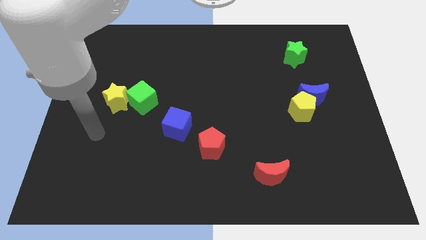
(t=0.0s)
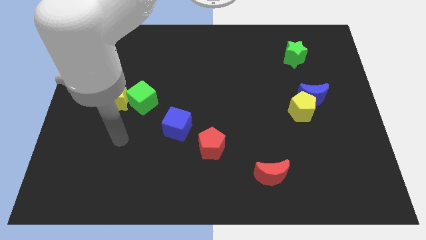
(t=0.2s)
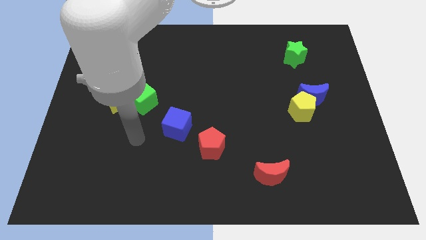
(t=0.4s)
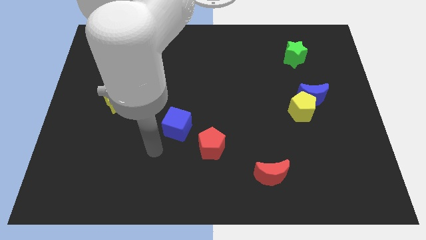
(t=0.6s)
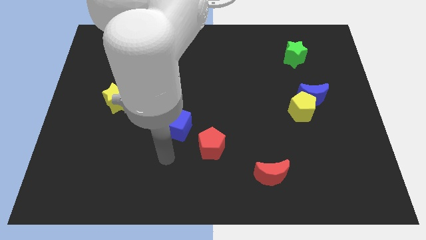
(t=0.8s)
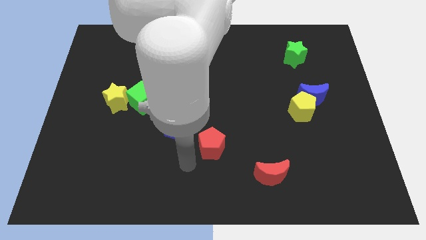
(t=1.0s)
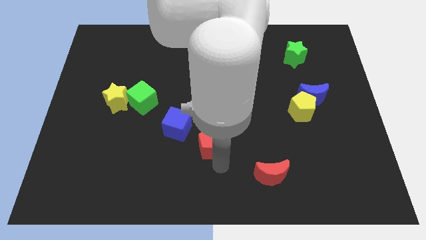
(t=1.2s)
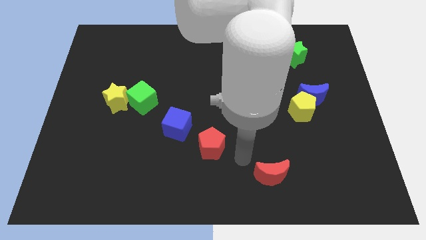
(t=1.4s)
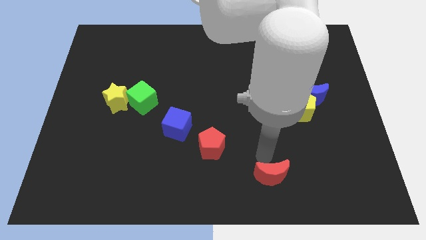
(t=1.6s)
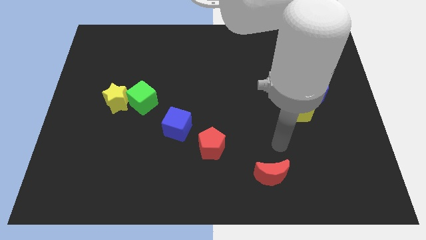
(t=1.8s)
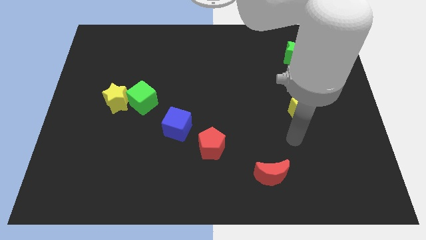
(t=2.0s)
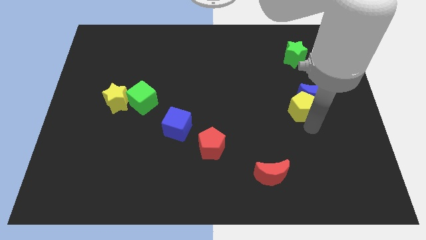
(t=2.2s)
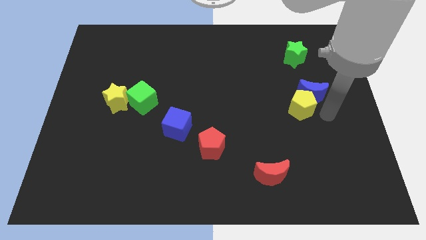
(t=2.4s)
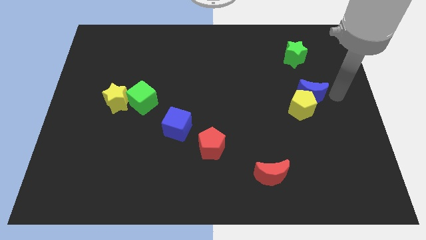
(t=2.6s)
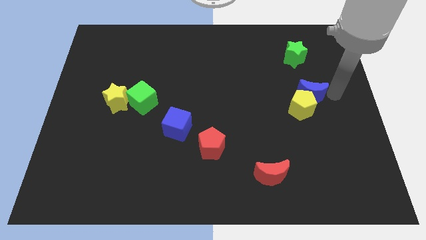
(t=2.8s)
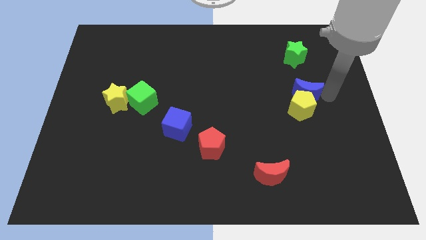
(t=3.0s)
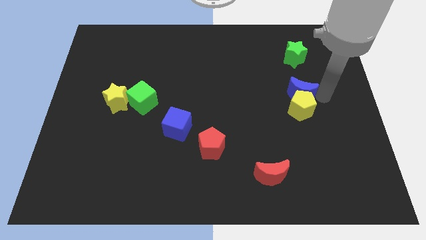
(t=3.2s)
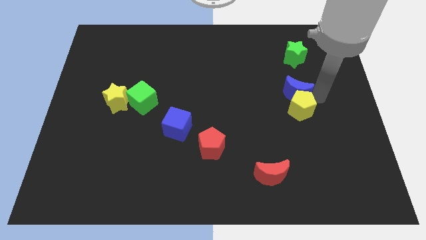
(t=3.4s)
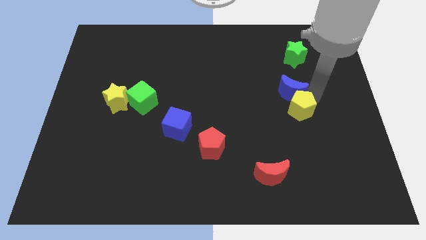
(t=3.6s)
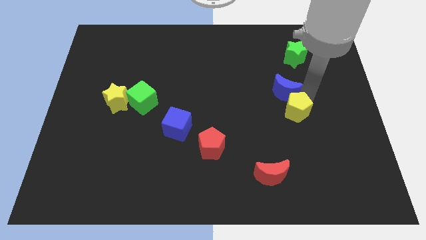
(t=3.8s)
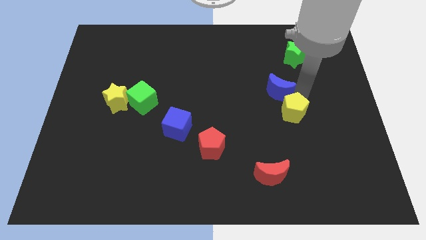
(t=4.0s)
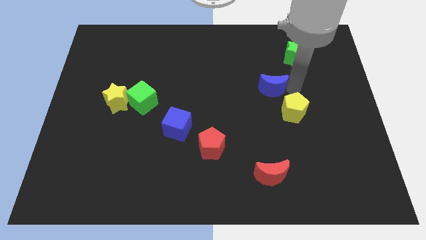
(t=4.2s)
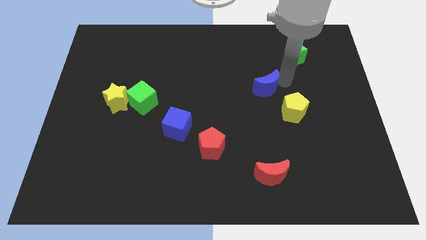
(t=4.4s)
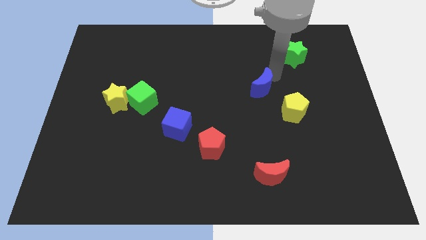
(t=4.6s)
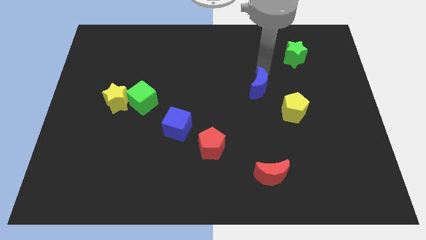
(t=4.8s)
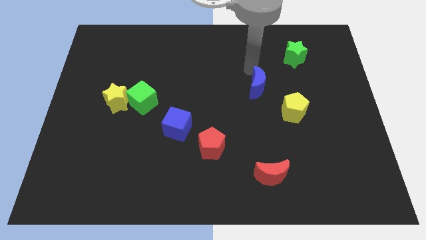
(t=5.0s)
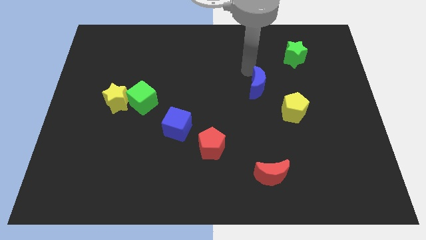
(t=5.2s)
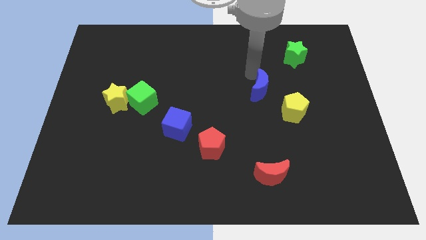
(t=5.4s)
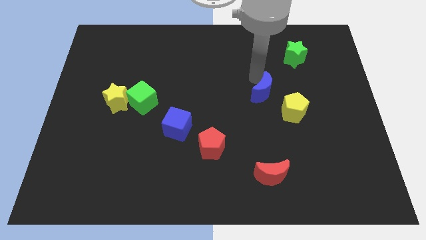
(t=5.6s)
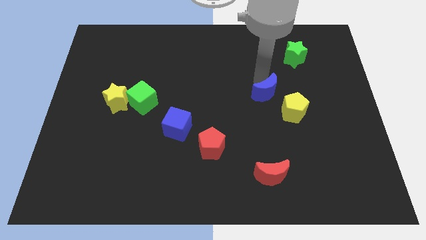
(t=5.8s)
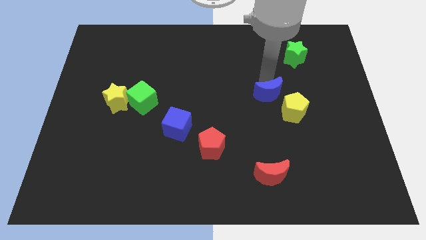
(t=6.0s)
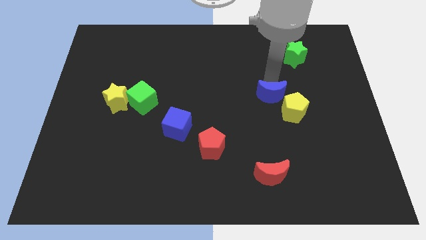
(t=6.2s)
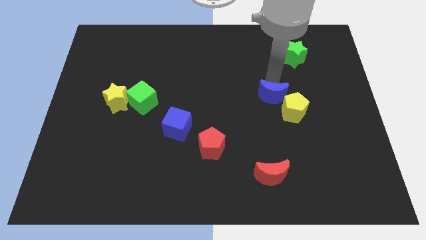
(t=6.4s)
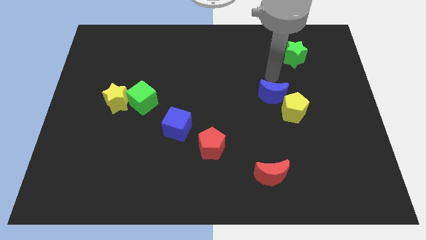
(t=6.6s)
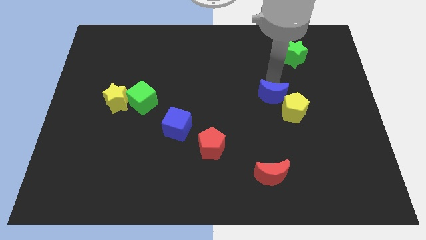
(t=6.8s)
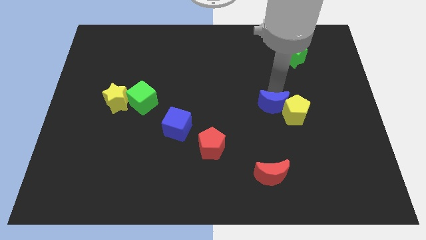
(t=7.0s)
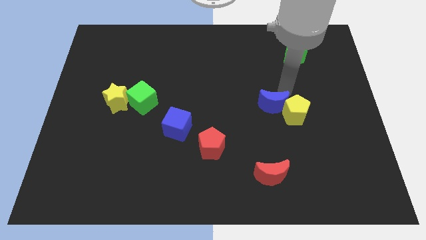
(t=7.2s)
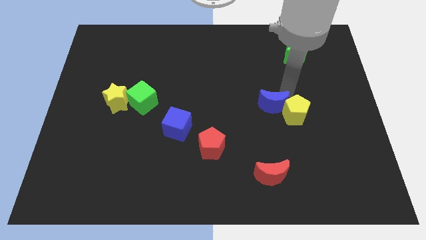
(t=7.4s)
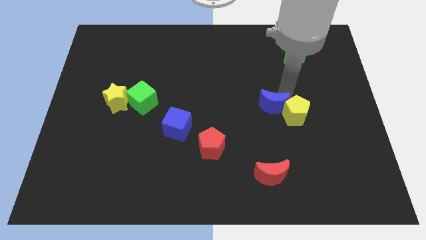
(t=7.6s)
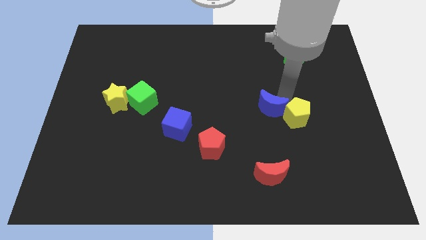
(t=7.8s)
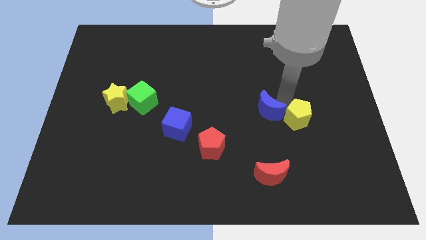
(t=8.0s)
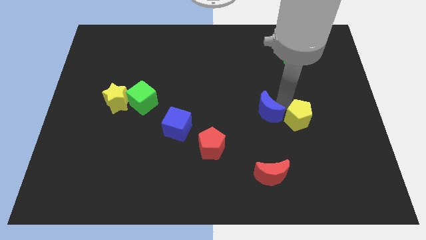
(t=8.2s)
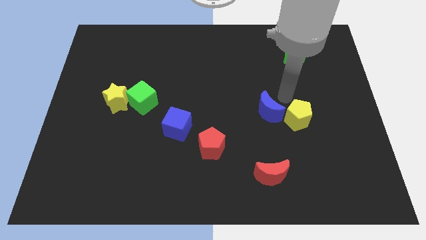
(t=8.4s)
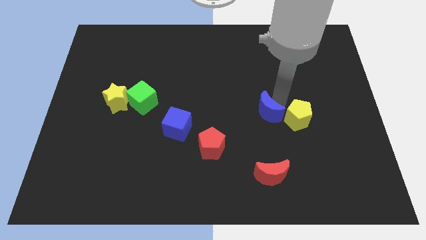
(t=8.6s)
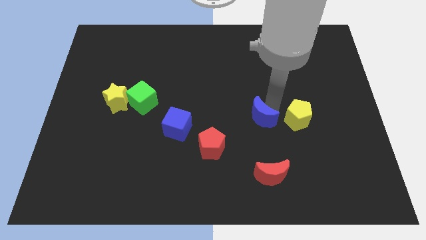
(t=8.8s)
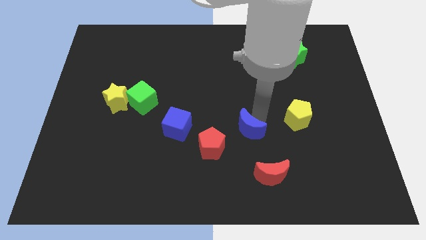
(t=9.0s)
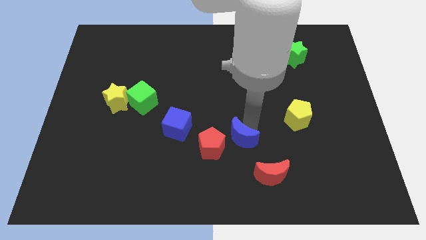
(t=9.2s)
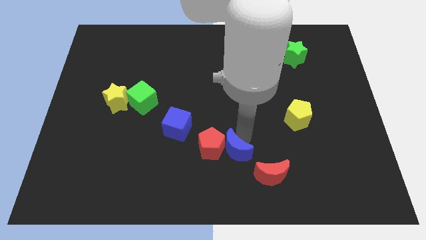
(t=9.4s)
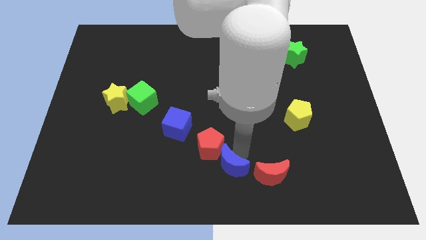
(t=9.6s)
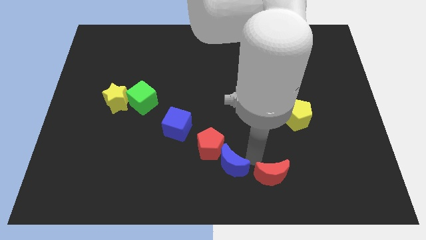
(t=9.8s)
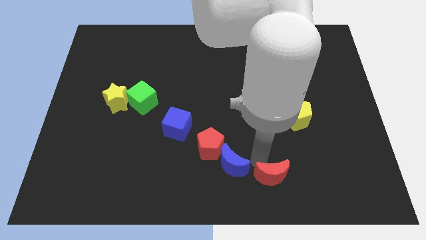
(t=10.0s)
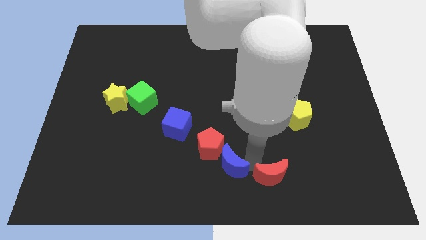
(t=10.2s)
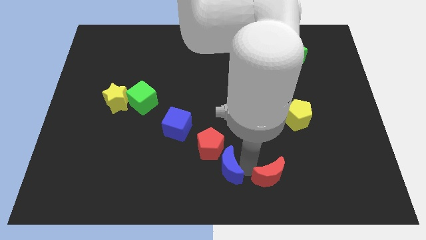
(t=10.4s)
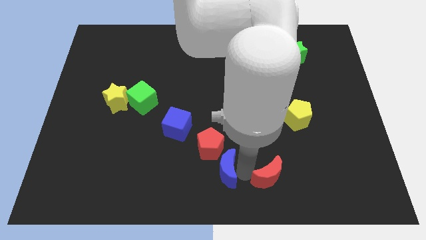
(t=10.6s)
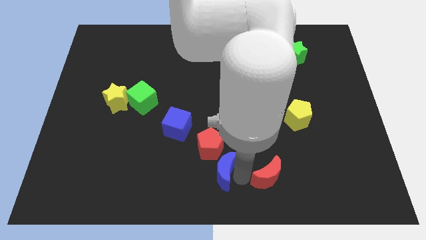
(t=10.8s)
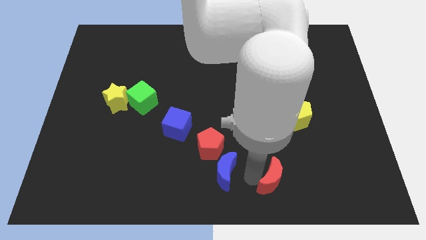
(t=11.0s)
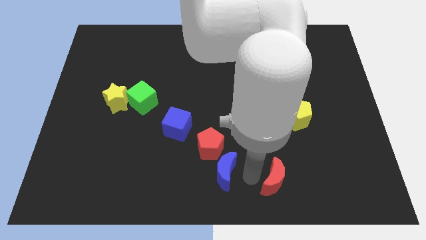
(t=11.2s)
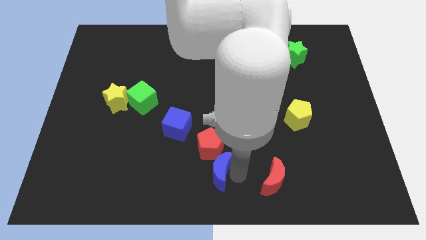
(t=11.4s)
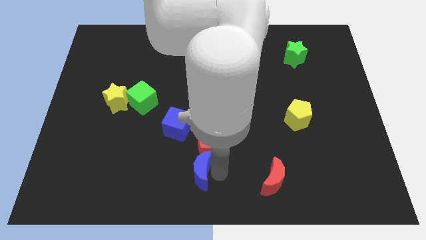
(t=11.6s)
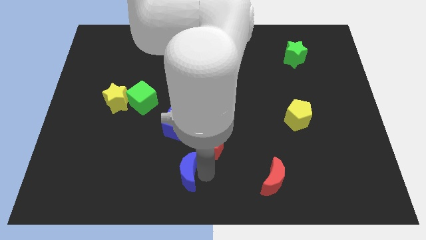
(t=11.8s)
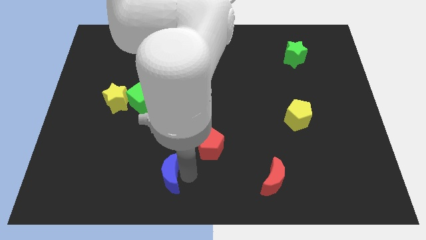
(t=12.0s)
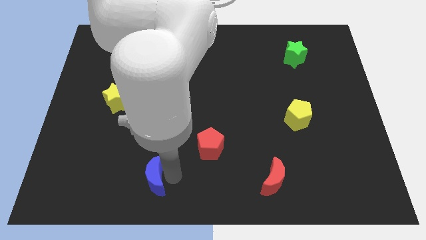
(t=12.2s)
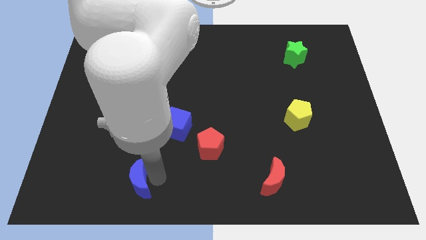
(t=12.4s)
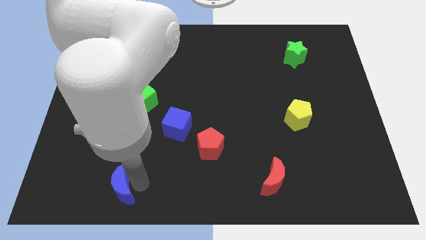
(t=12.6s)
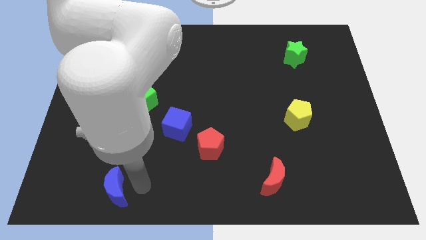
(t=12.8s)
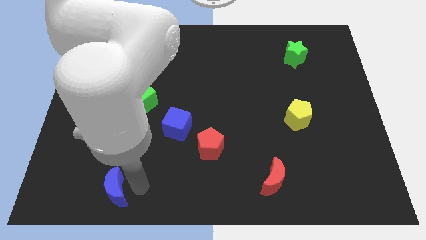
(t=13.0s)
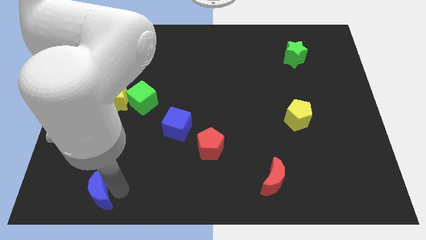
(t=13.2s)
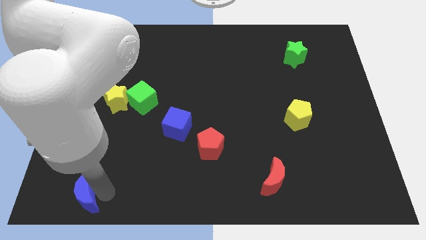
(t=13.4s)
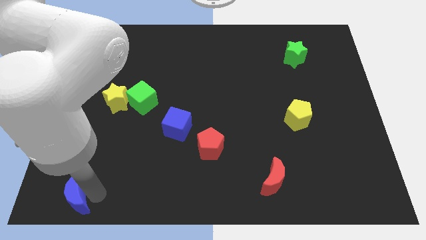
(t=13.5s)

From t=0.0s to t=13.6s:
move the blue moon to the bottom left corner
